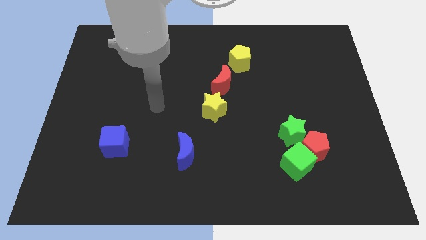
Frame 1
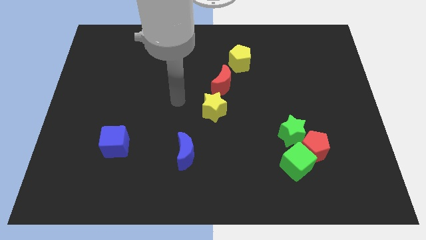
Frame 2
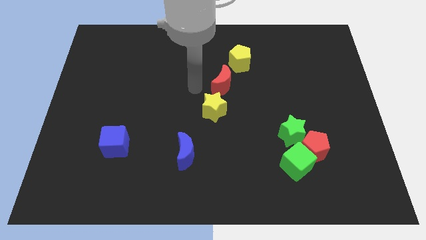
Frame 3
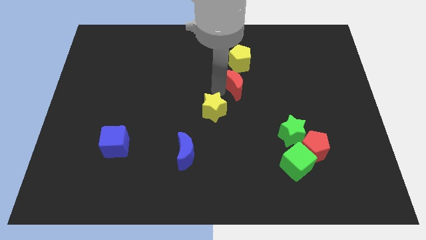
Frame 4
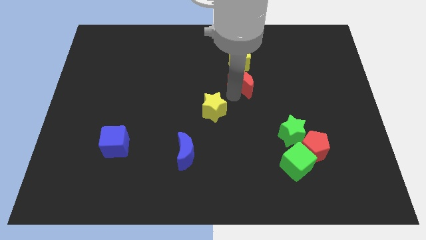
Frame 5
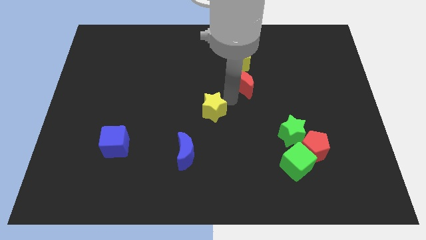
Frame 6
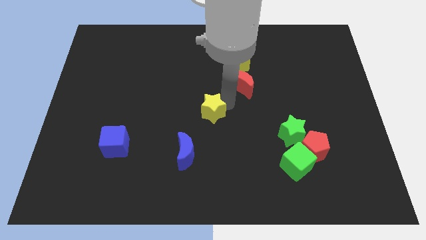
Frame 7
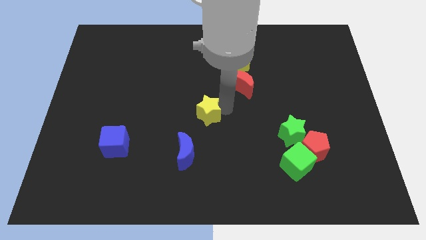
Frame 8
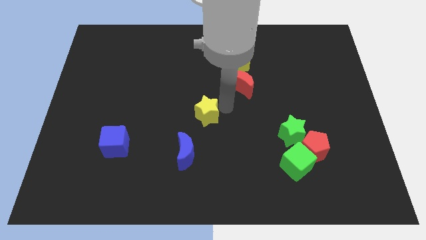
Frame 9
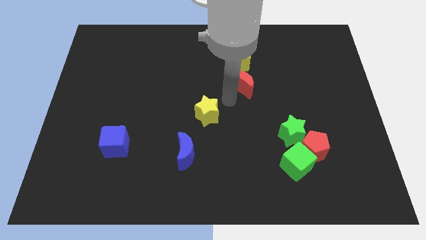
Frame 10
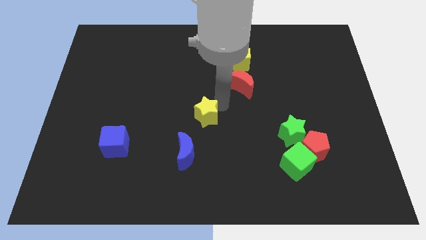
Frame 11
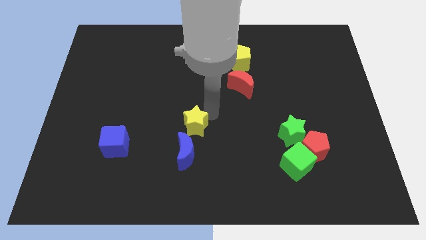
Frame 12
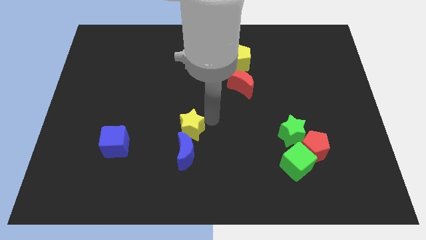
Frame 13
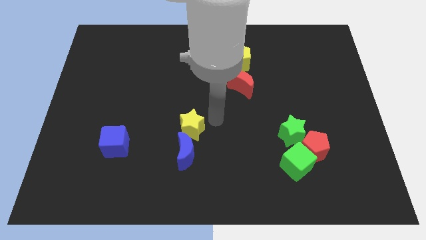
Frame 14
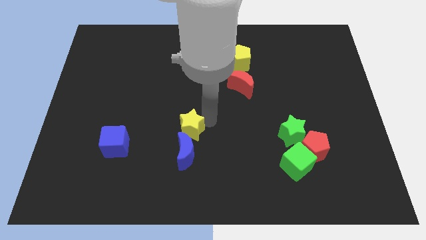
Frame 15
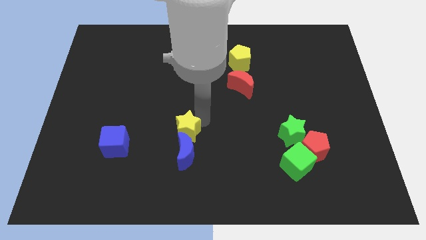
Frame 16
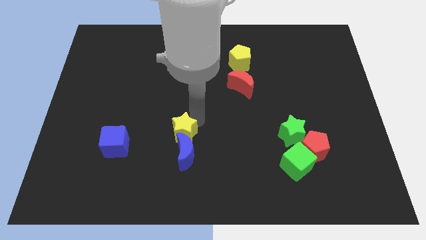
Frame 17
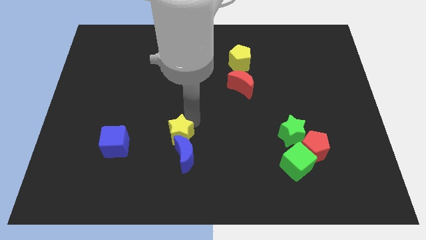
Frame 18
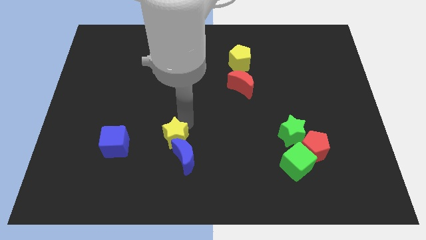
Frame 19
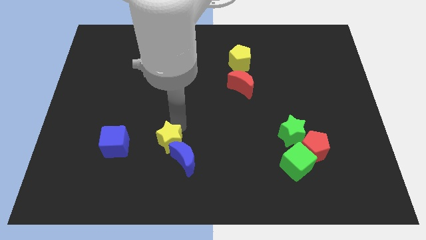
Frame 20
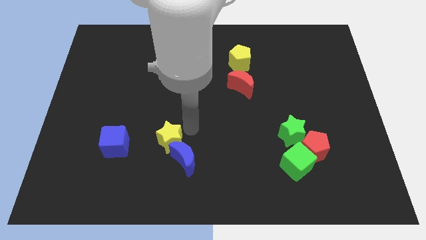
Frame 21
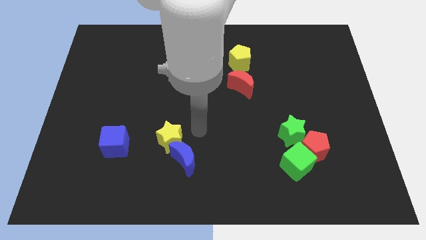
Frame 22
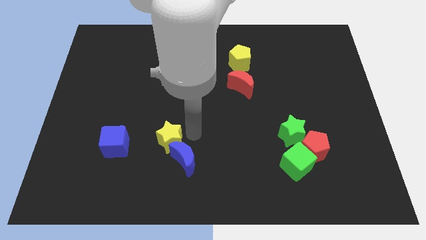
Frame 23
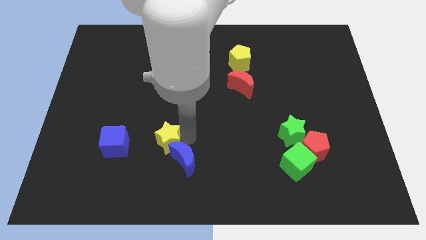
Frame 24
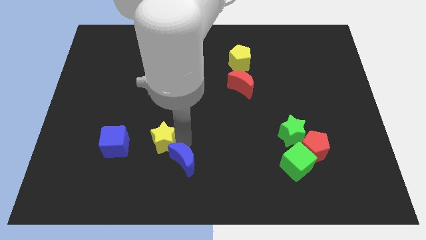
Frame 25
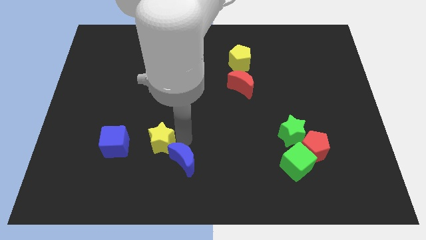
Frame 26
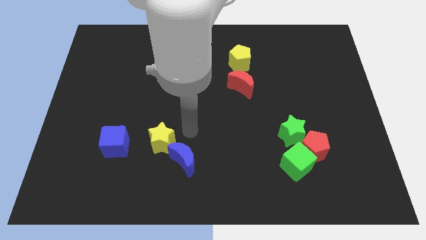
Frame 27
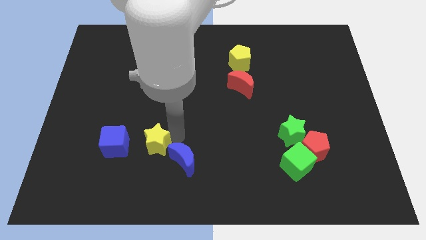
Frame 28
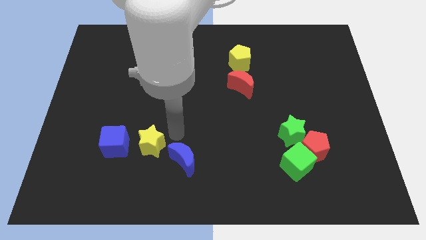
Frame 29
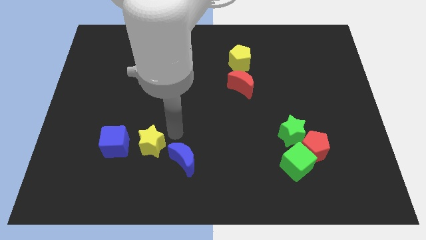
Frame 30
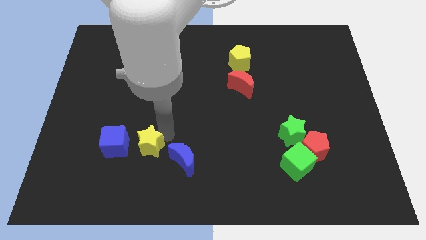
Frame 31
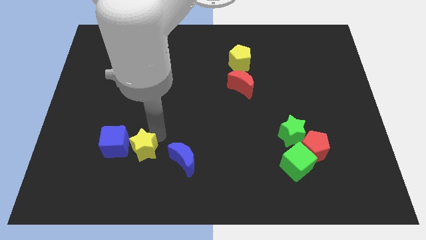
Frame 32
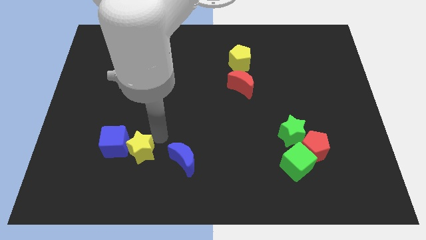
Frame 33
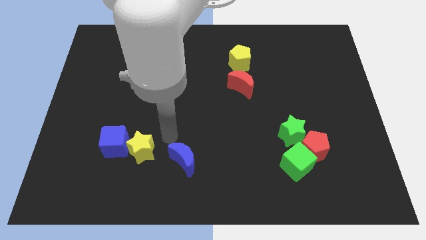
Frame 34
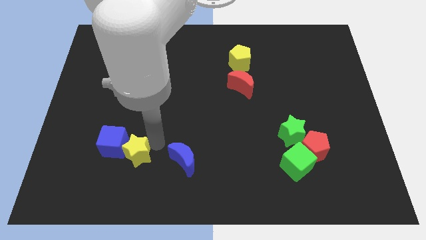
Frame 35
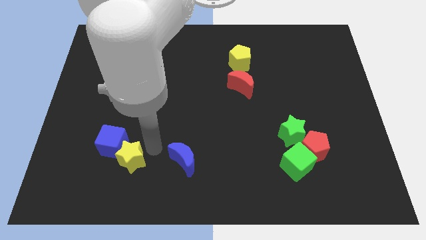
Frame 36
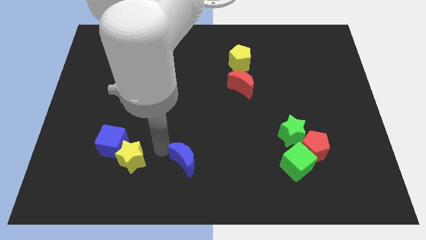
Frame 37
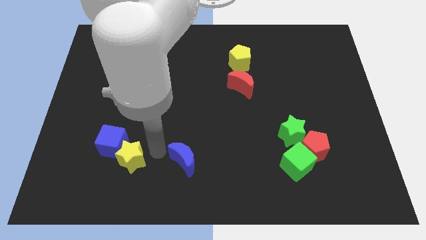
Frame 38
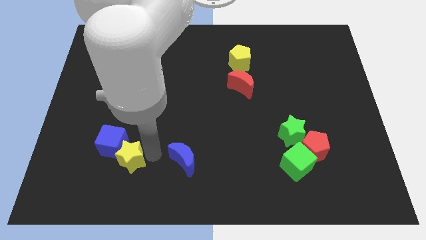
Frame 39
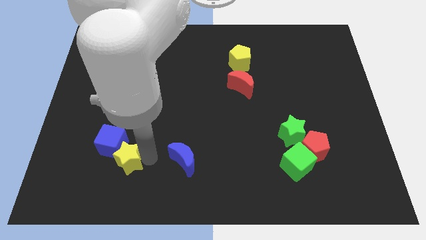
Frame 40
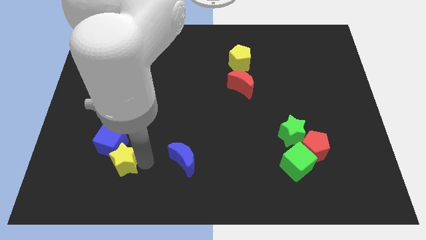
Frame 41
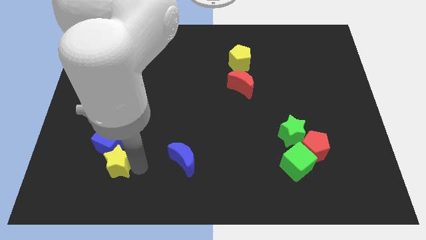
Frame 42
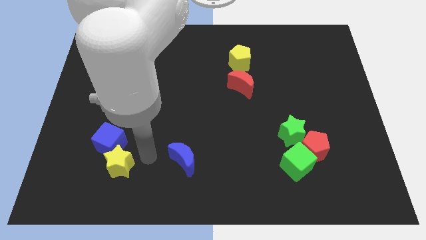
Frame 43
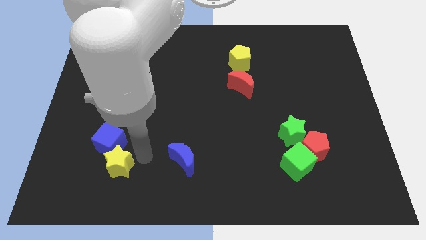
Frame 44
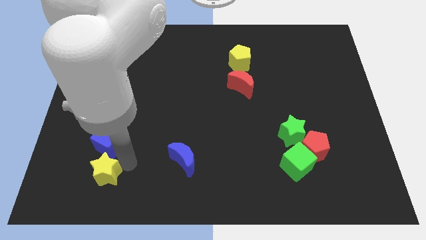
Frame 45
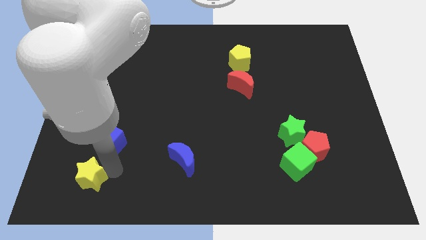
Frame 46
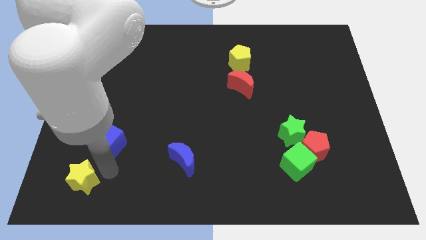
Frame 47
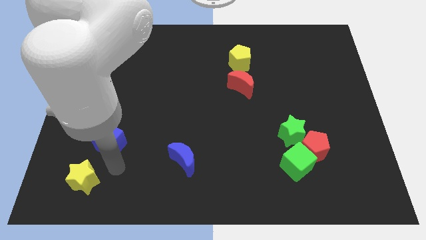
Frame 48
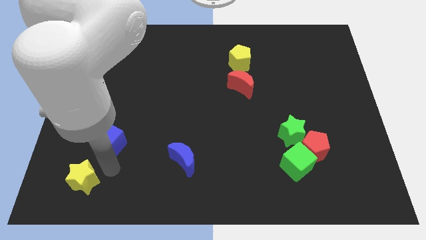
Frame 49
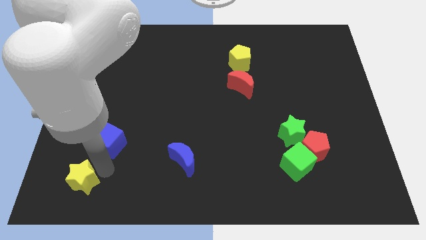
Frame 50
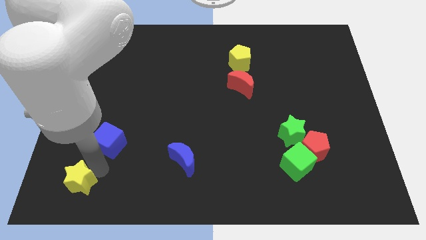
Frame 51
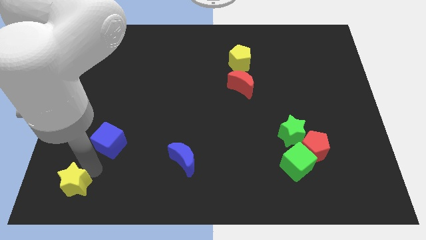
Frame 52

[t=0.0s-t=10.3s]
move the yellow star to the lower left corner

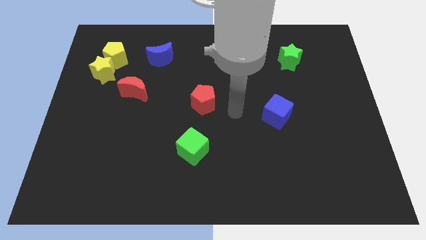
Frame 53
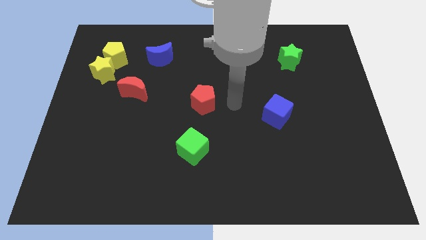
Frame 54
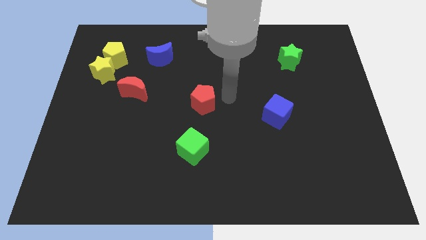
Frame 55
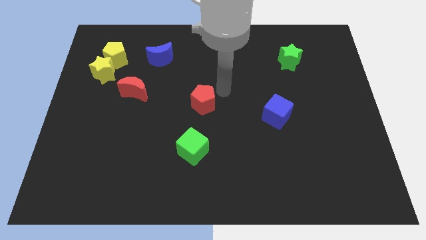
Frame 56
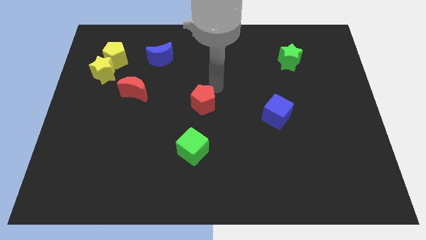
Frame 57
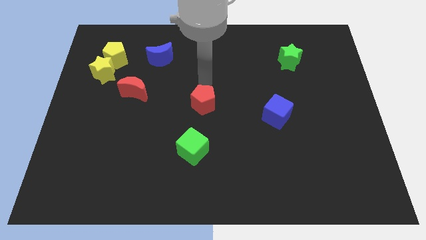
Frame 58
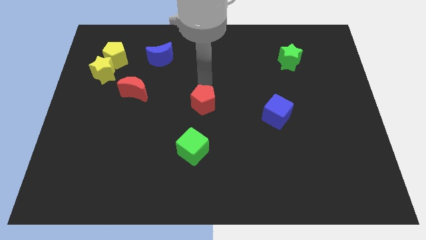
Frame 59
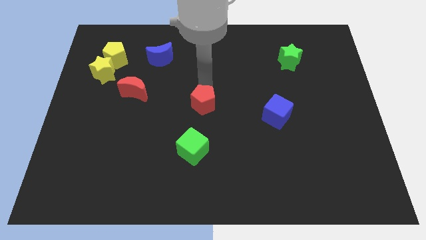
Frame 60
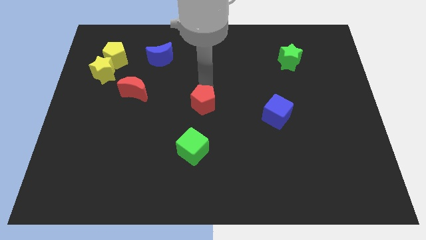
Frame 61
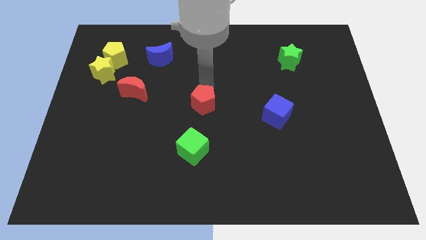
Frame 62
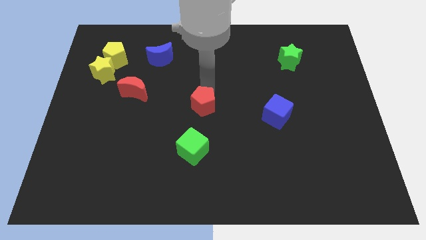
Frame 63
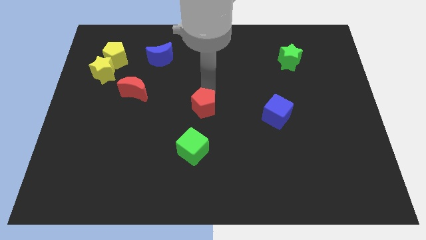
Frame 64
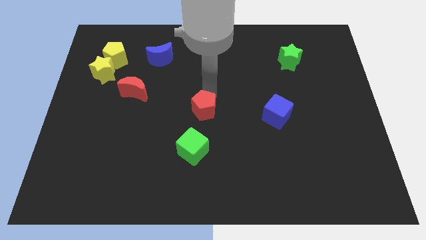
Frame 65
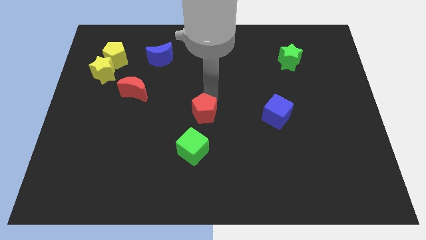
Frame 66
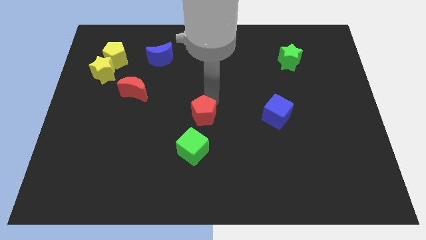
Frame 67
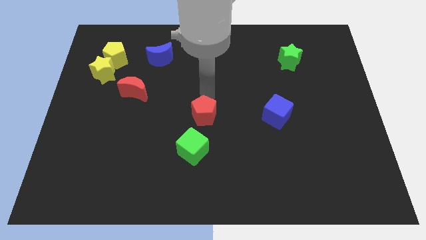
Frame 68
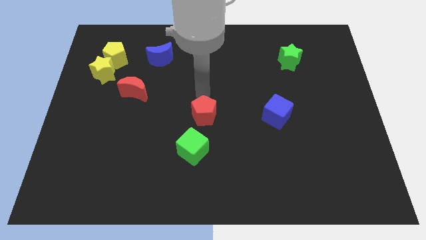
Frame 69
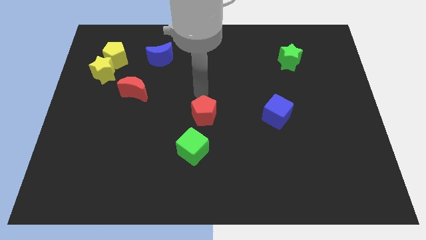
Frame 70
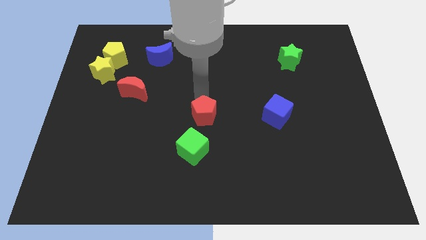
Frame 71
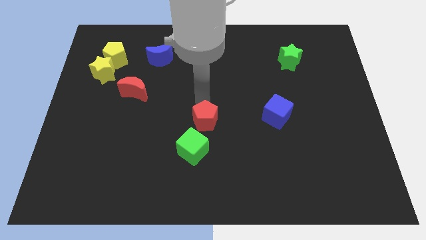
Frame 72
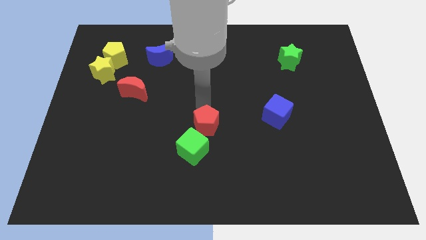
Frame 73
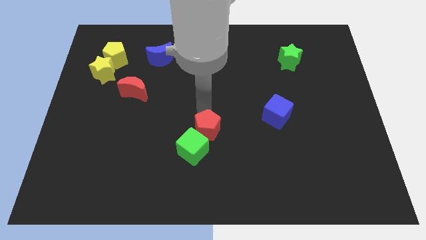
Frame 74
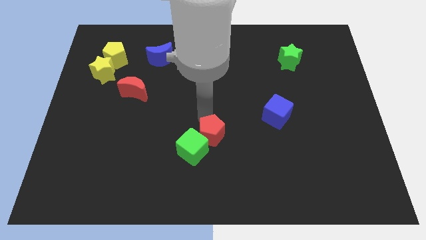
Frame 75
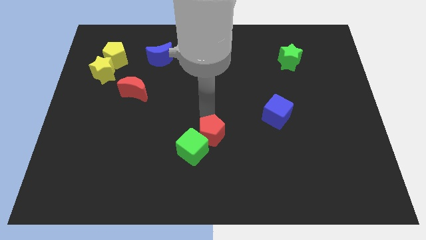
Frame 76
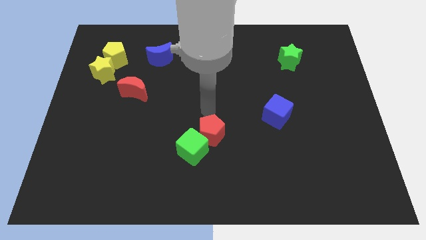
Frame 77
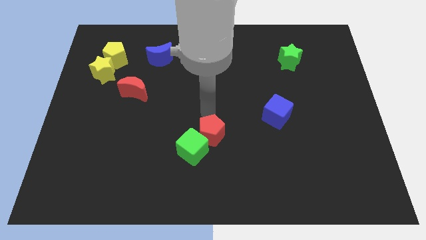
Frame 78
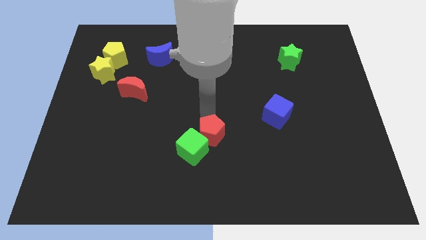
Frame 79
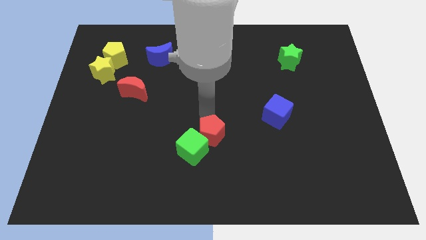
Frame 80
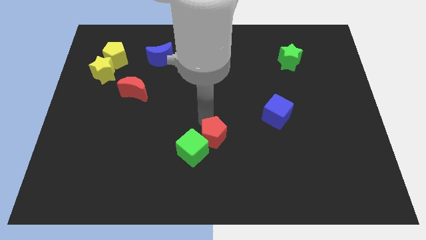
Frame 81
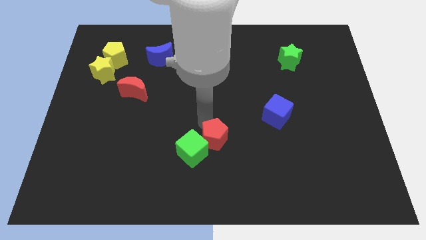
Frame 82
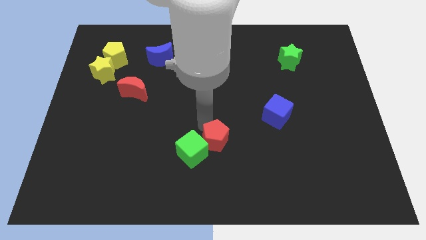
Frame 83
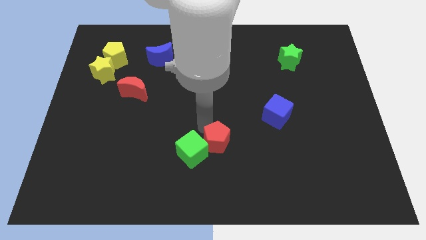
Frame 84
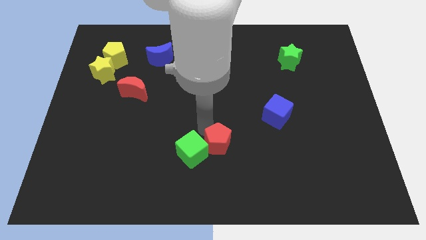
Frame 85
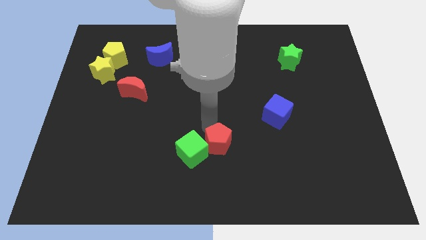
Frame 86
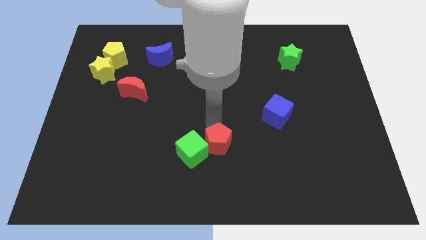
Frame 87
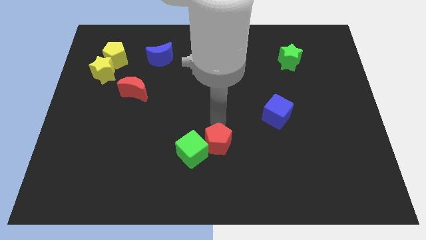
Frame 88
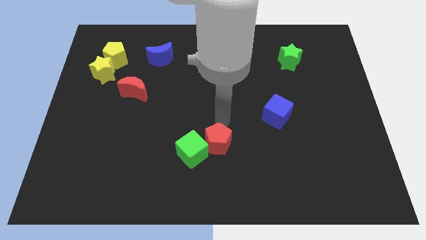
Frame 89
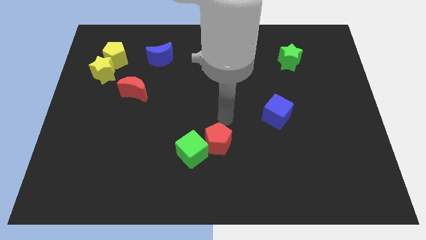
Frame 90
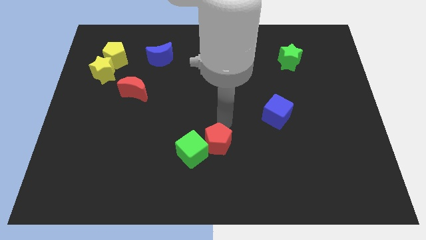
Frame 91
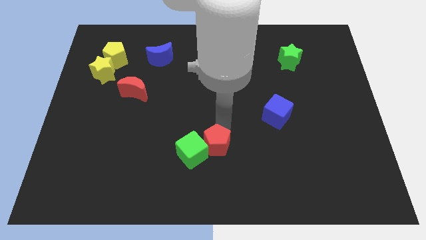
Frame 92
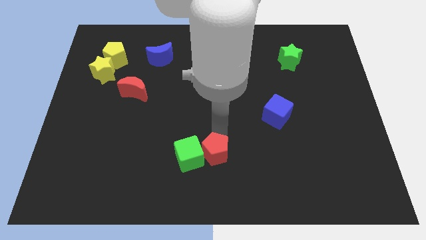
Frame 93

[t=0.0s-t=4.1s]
slide the red pentagon to the bottom side
